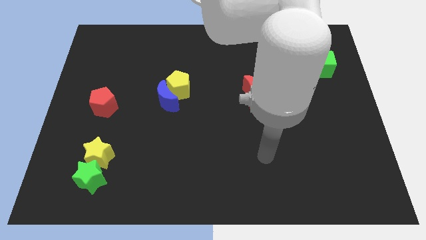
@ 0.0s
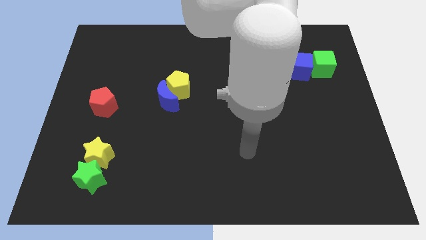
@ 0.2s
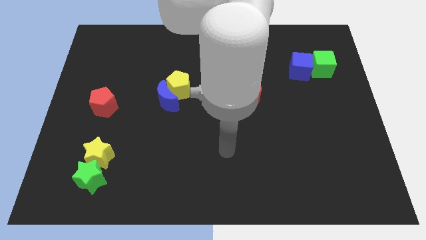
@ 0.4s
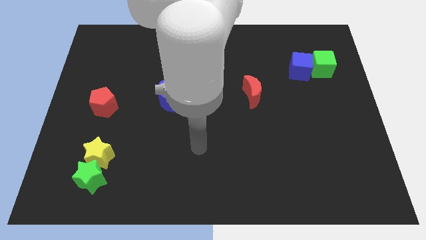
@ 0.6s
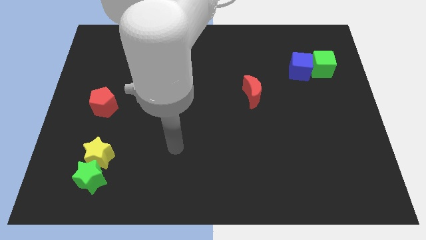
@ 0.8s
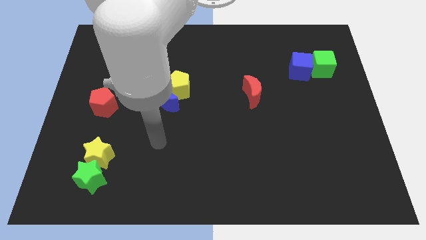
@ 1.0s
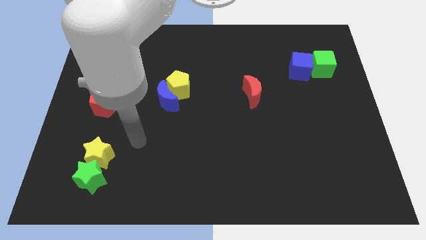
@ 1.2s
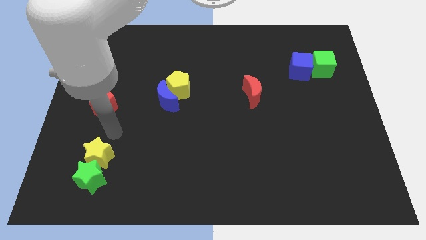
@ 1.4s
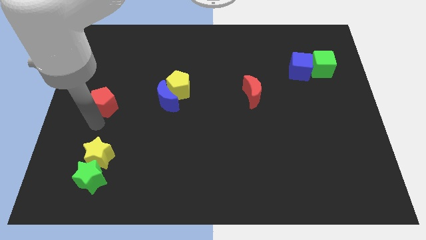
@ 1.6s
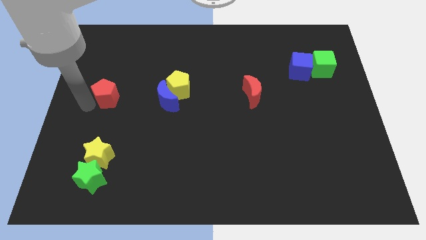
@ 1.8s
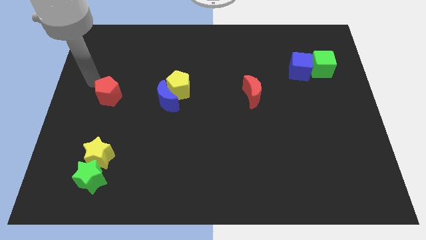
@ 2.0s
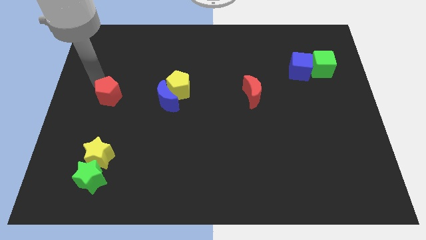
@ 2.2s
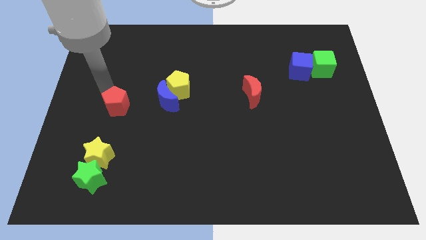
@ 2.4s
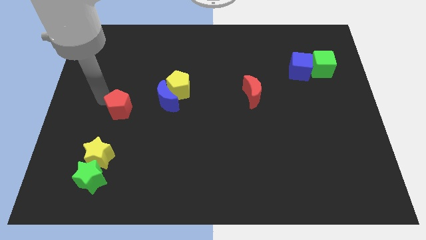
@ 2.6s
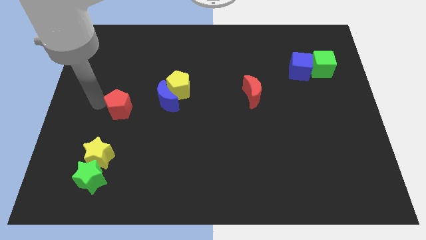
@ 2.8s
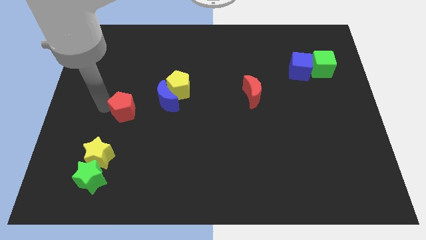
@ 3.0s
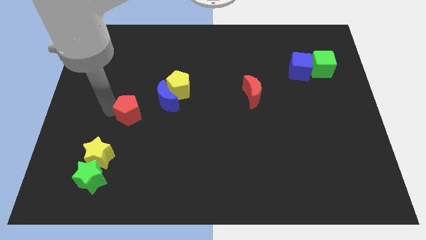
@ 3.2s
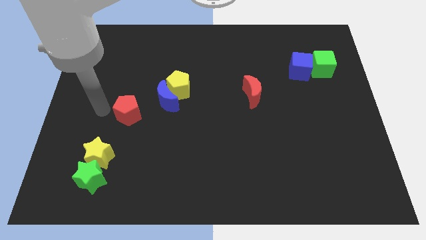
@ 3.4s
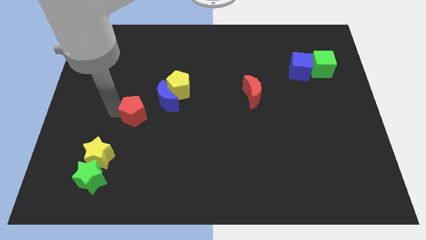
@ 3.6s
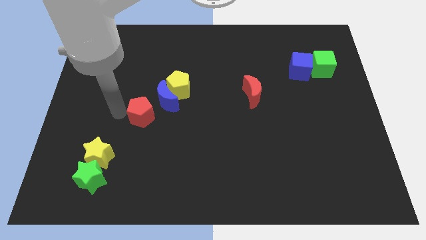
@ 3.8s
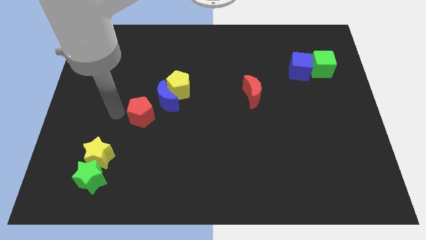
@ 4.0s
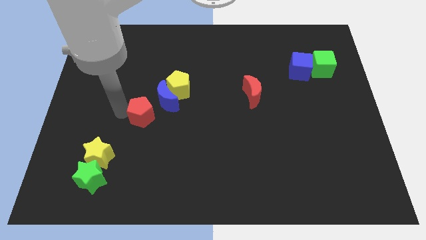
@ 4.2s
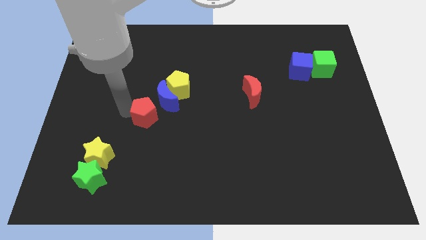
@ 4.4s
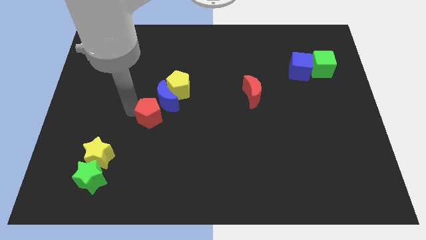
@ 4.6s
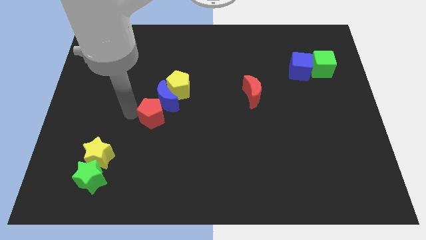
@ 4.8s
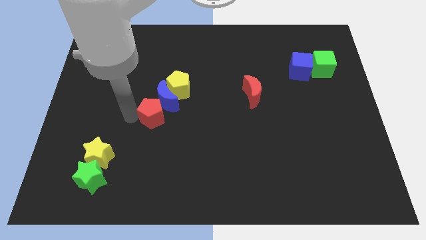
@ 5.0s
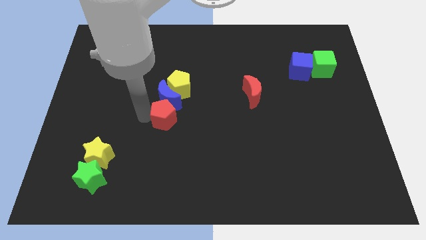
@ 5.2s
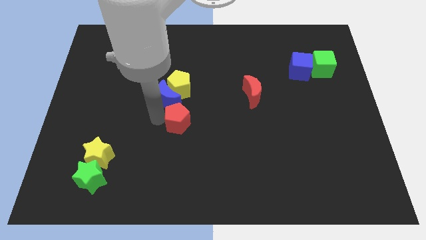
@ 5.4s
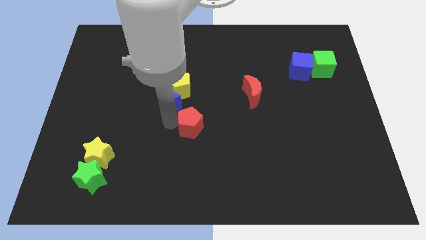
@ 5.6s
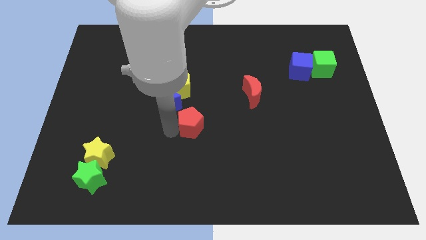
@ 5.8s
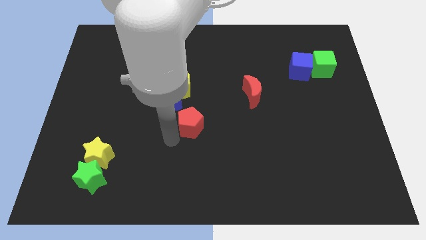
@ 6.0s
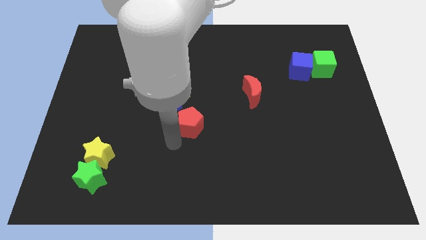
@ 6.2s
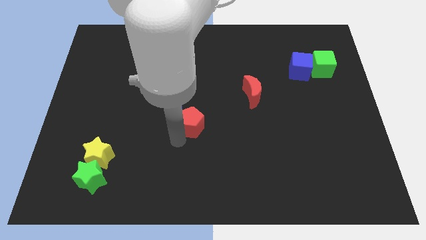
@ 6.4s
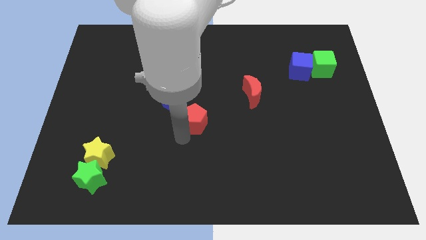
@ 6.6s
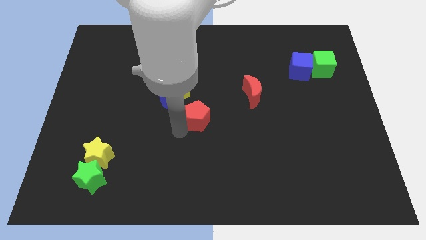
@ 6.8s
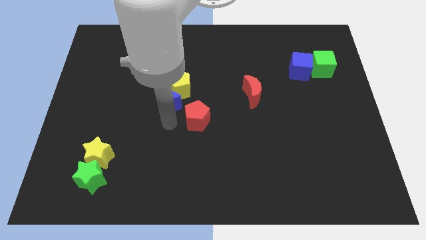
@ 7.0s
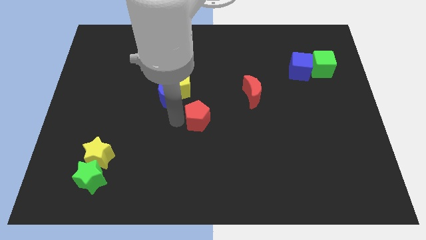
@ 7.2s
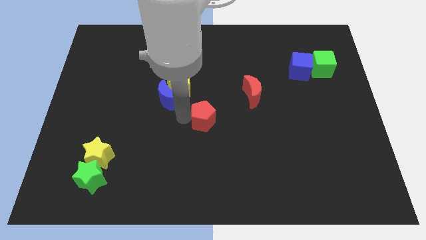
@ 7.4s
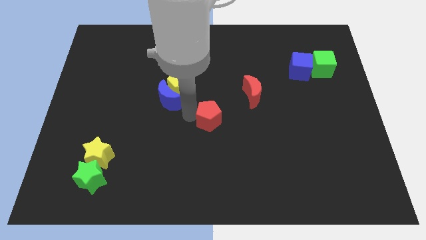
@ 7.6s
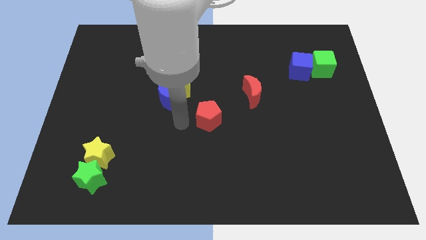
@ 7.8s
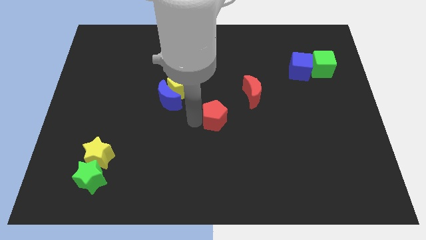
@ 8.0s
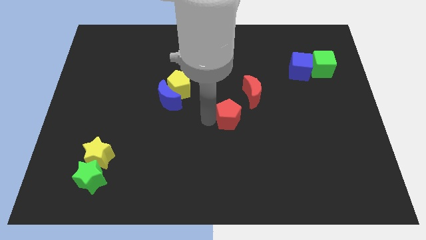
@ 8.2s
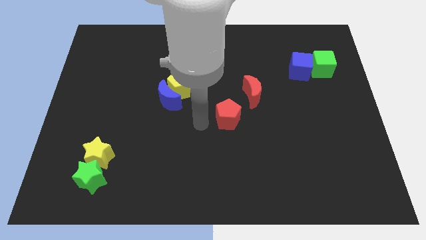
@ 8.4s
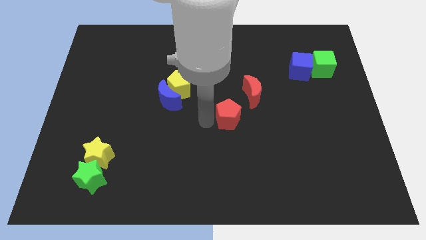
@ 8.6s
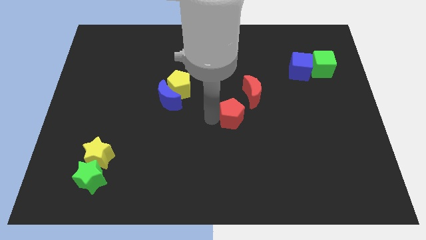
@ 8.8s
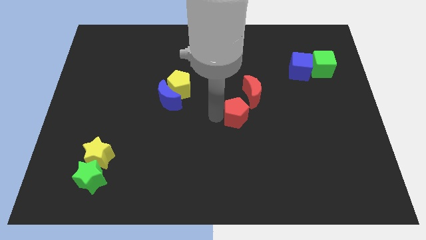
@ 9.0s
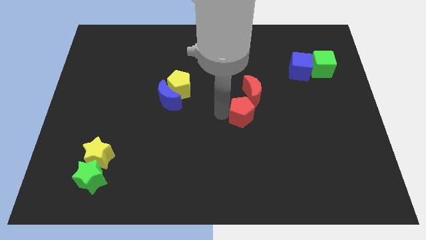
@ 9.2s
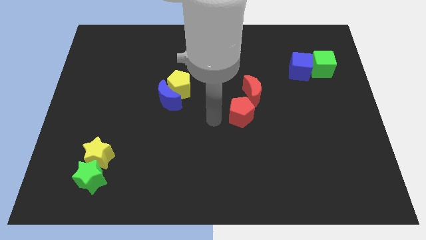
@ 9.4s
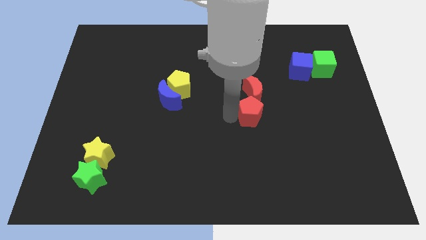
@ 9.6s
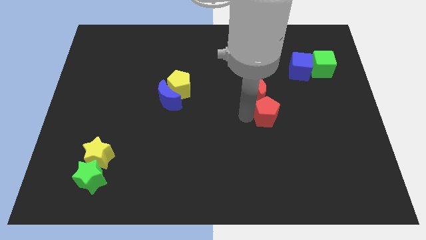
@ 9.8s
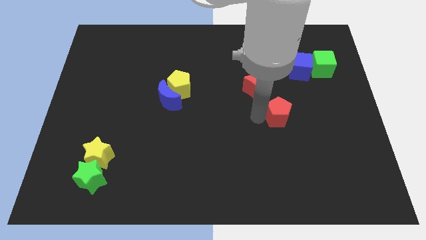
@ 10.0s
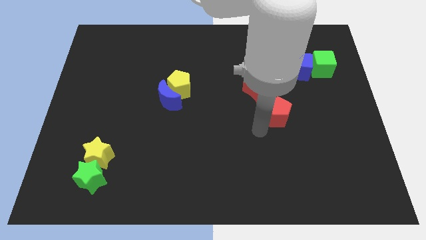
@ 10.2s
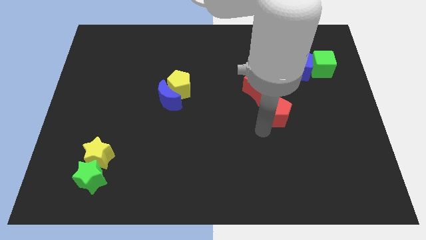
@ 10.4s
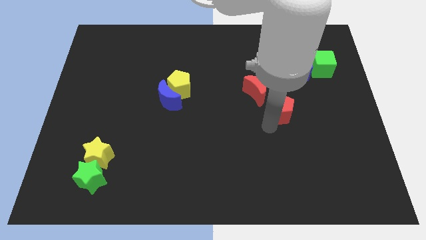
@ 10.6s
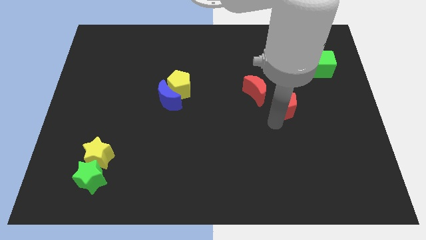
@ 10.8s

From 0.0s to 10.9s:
push the red pentagon just right of the red moon

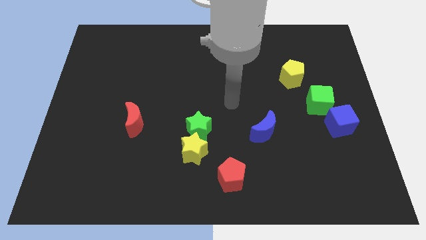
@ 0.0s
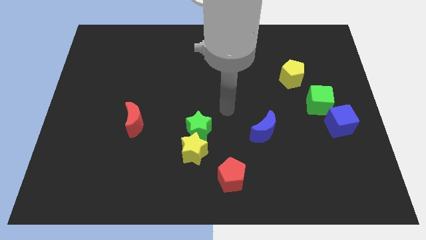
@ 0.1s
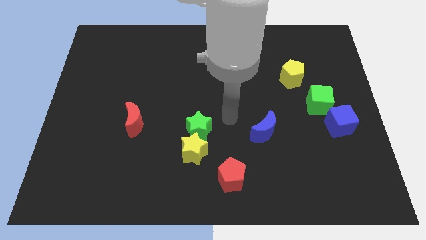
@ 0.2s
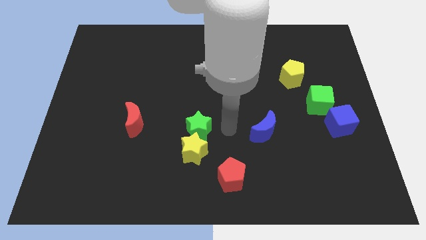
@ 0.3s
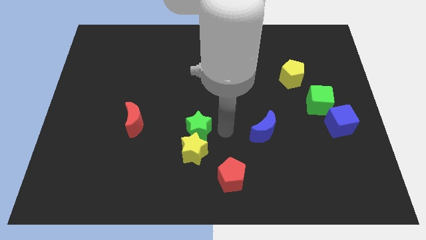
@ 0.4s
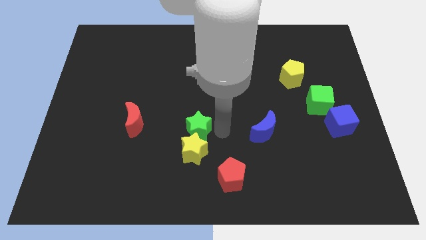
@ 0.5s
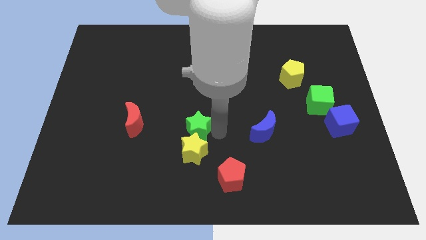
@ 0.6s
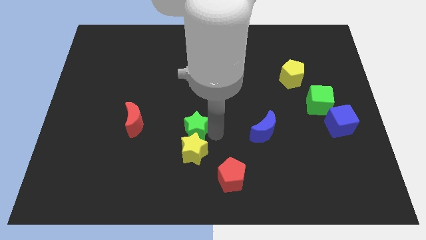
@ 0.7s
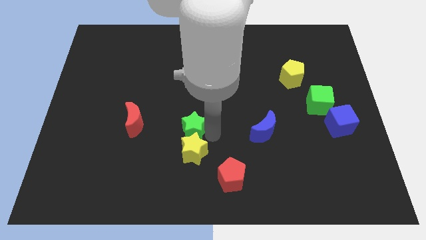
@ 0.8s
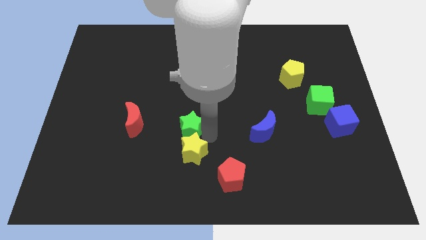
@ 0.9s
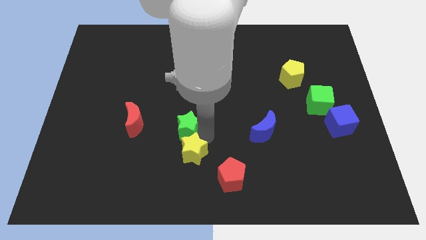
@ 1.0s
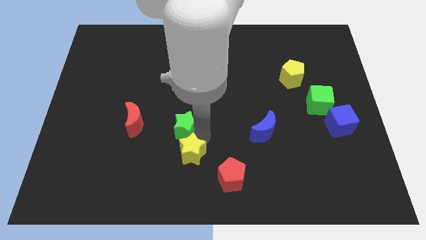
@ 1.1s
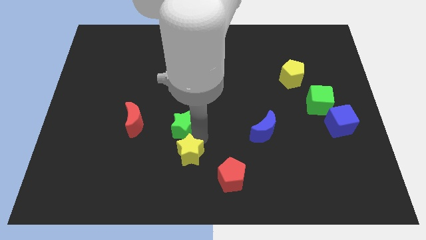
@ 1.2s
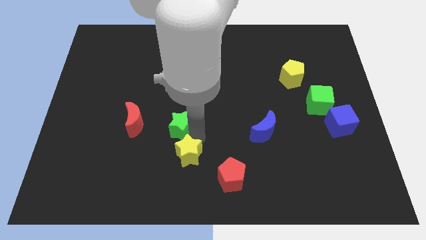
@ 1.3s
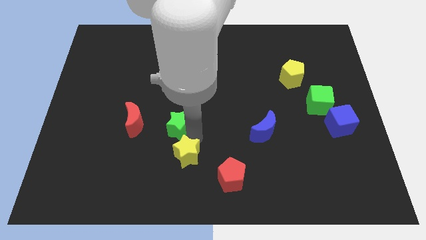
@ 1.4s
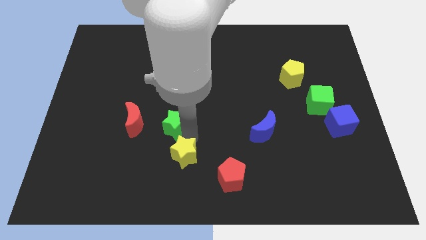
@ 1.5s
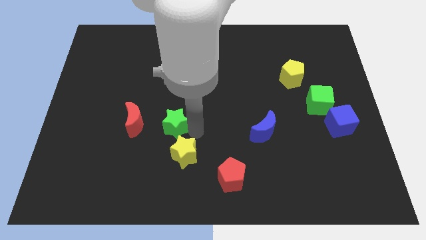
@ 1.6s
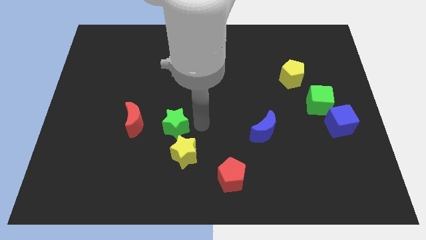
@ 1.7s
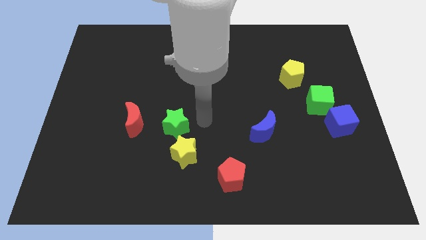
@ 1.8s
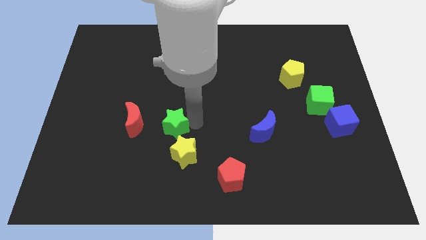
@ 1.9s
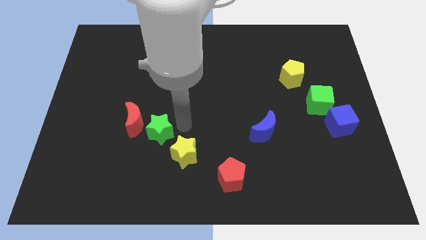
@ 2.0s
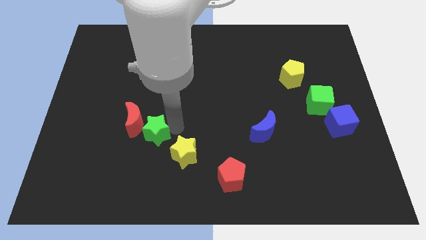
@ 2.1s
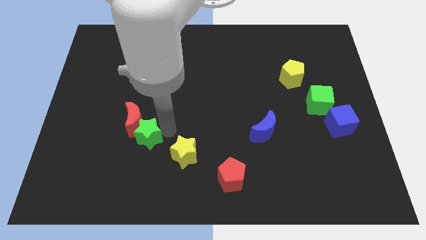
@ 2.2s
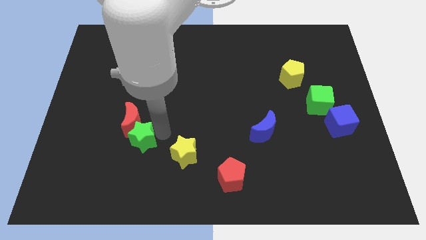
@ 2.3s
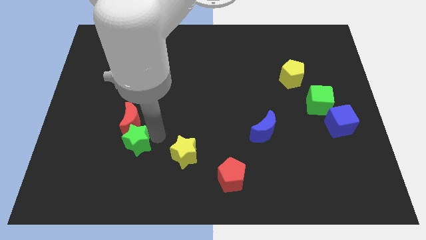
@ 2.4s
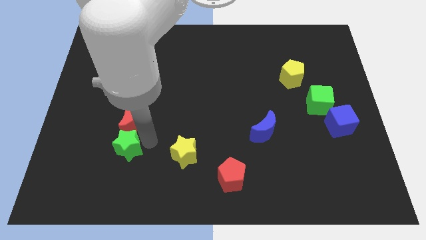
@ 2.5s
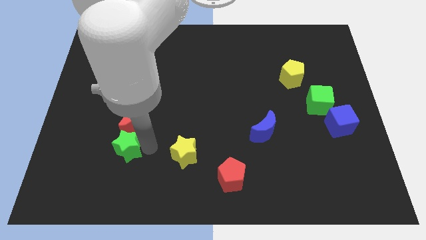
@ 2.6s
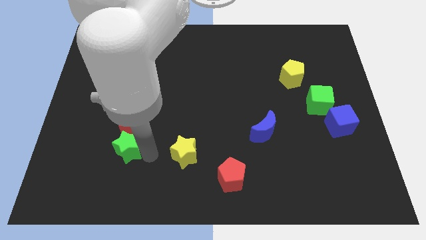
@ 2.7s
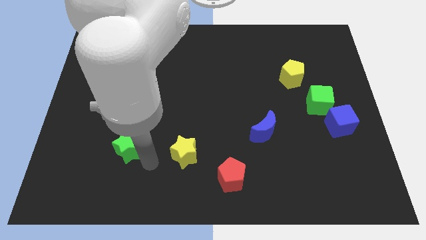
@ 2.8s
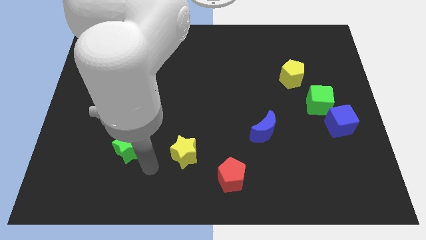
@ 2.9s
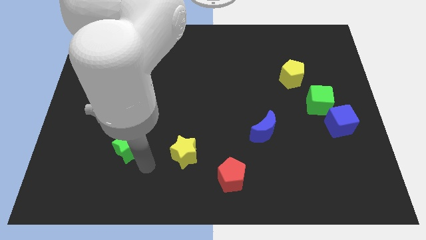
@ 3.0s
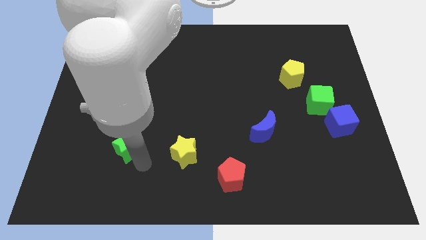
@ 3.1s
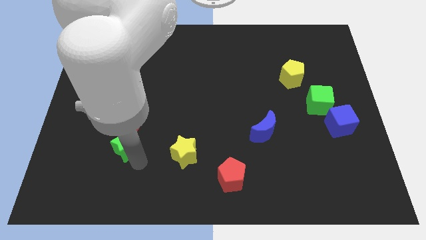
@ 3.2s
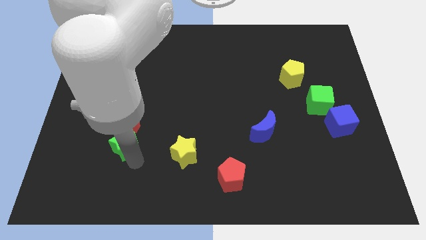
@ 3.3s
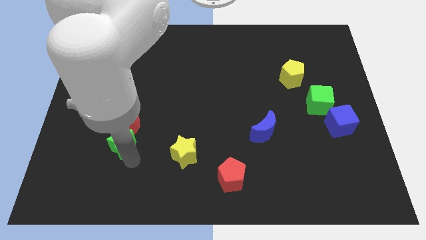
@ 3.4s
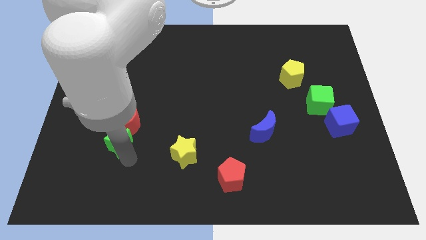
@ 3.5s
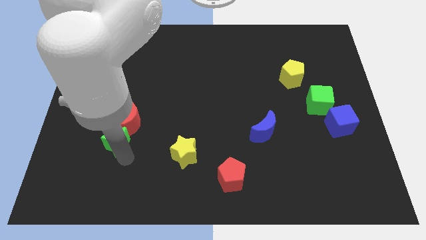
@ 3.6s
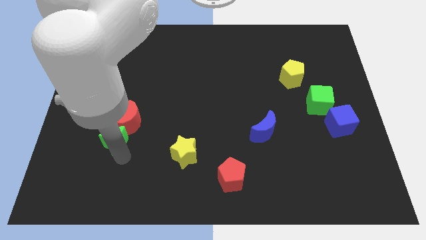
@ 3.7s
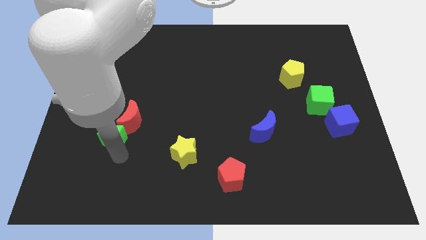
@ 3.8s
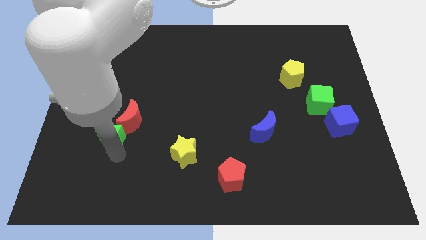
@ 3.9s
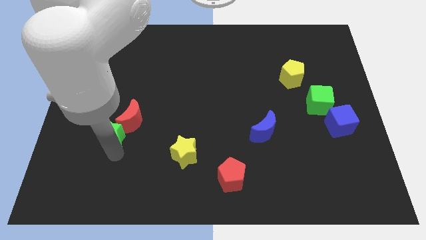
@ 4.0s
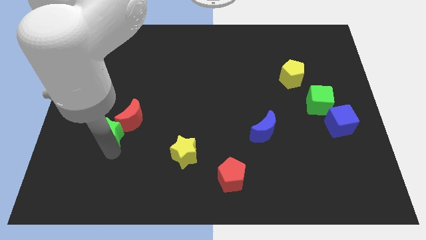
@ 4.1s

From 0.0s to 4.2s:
slide the green star to the left side of the red moon
